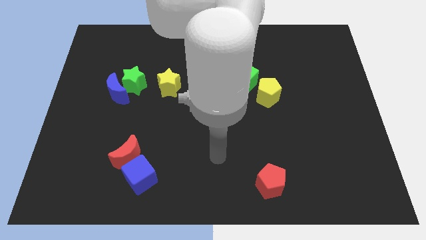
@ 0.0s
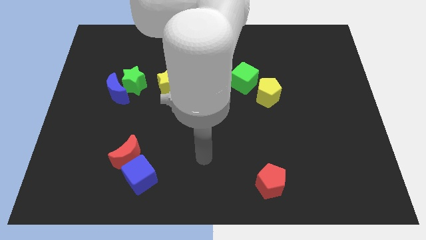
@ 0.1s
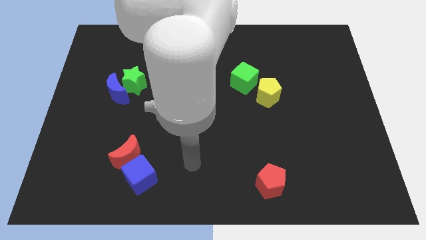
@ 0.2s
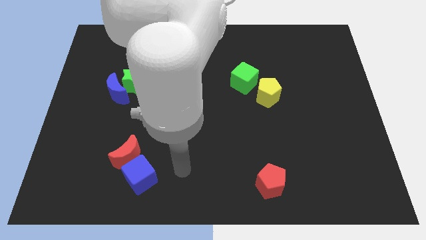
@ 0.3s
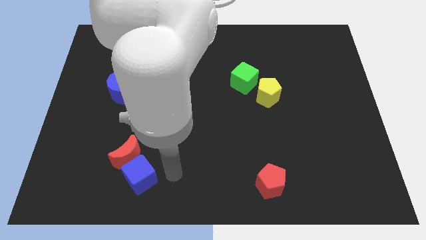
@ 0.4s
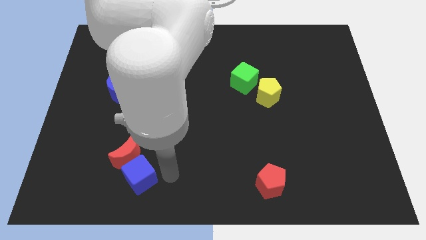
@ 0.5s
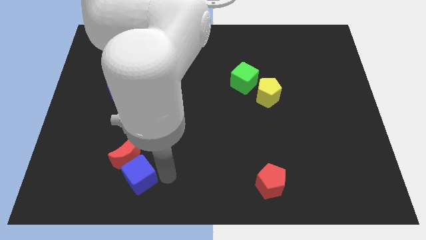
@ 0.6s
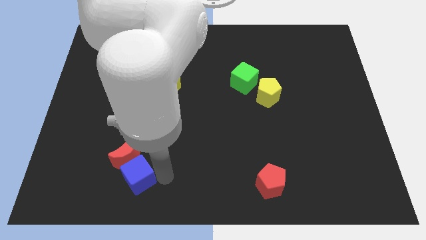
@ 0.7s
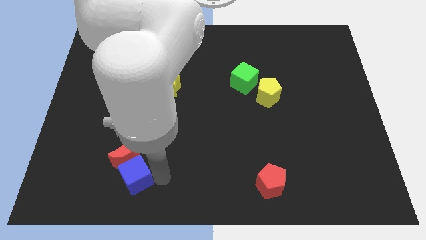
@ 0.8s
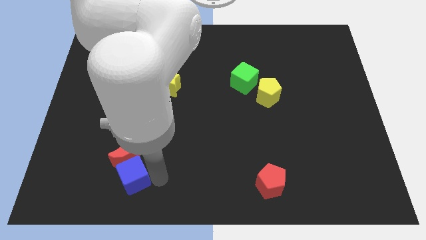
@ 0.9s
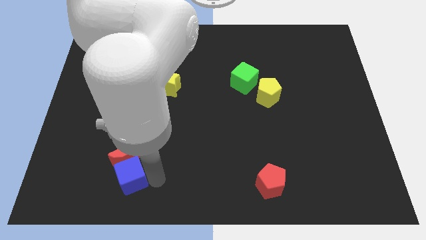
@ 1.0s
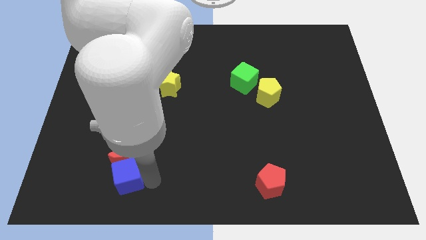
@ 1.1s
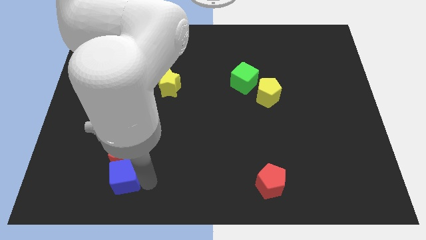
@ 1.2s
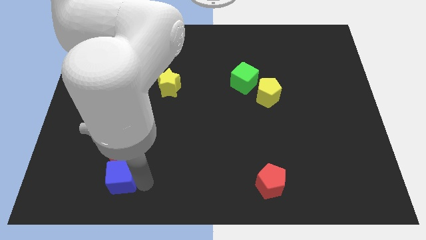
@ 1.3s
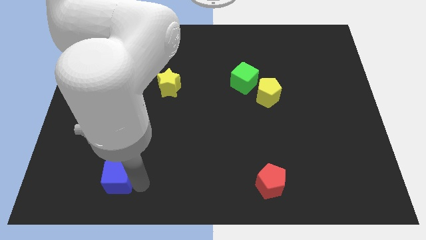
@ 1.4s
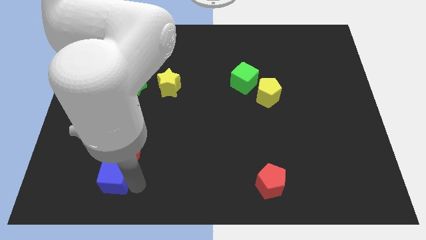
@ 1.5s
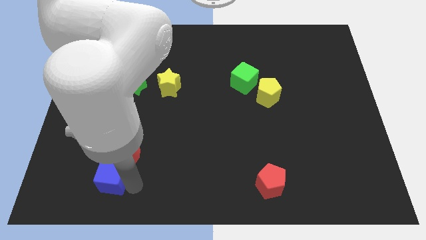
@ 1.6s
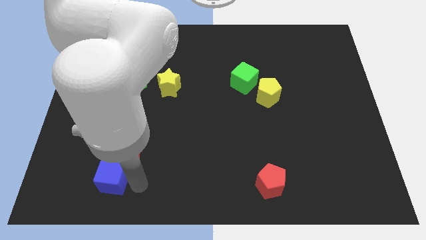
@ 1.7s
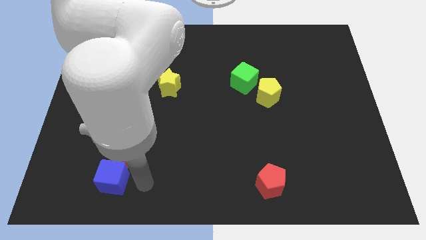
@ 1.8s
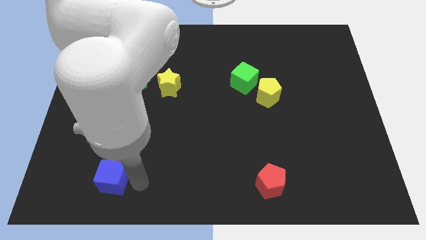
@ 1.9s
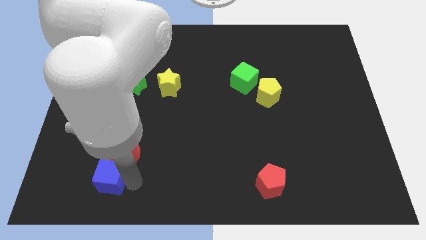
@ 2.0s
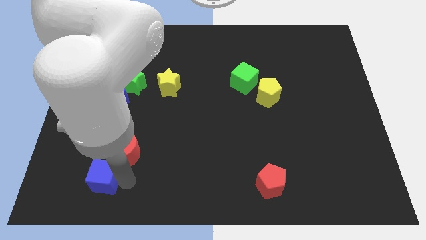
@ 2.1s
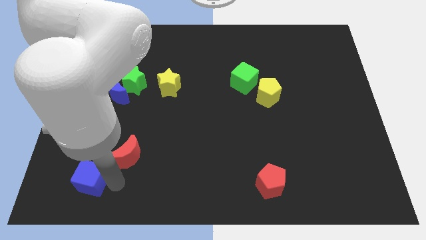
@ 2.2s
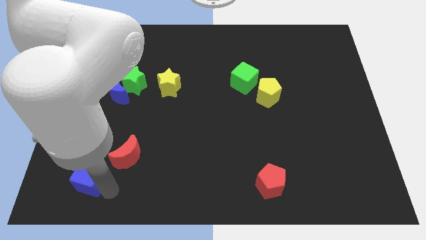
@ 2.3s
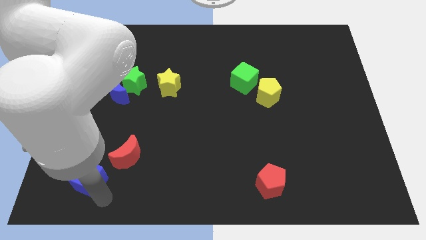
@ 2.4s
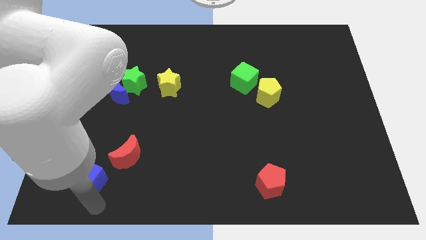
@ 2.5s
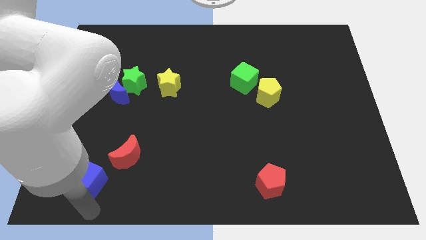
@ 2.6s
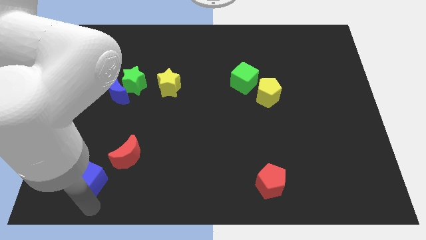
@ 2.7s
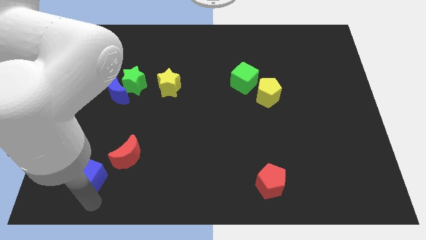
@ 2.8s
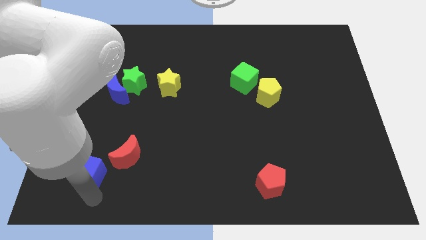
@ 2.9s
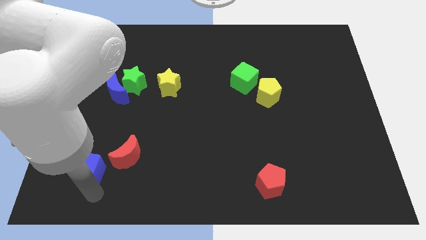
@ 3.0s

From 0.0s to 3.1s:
slightly slide the blue cube diagonally upwards and to the left

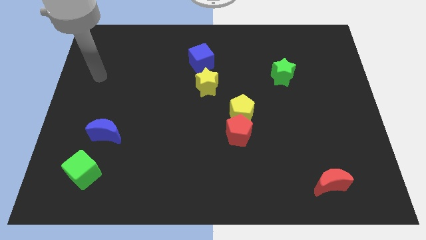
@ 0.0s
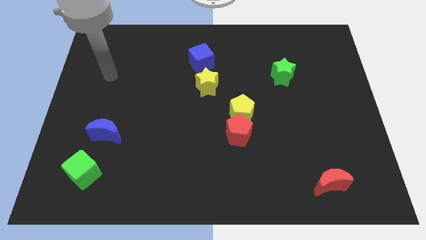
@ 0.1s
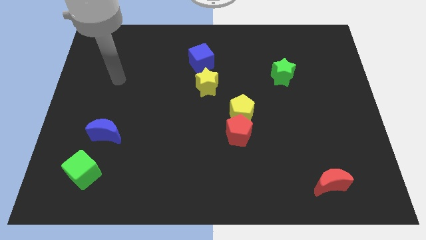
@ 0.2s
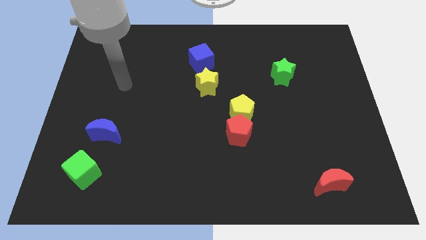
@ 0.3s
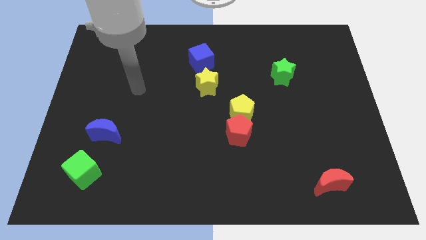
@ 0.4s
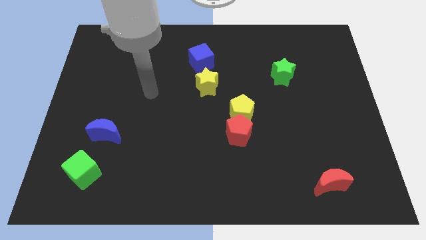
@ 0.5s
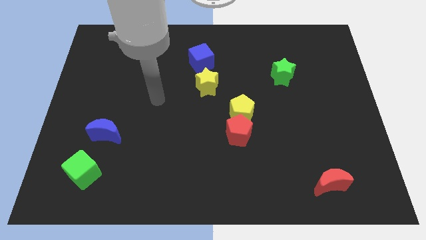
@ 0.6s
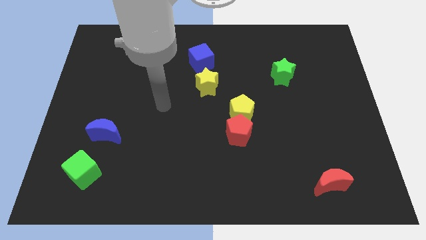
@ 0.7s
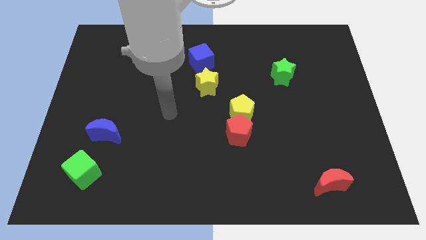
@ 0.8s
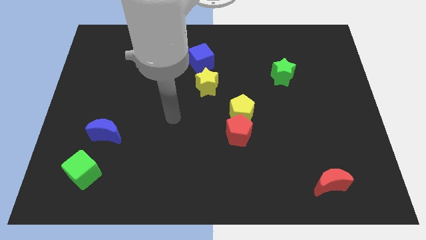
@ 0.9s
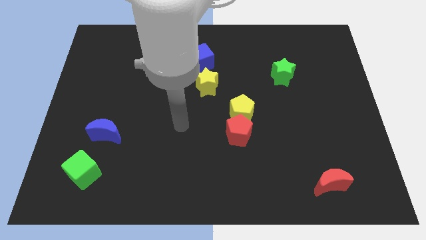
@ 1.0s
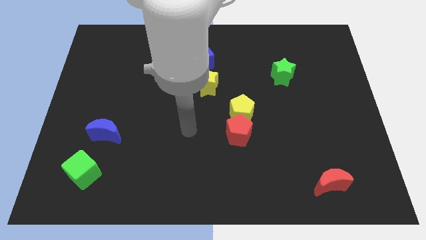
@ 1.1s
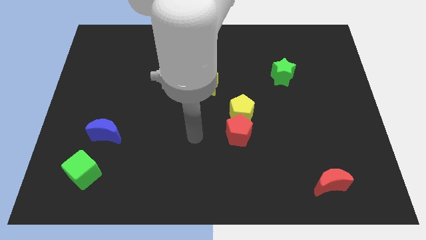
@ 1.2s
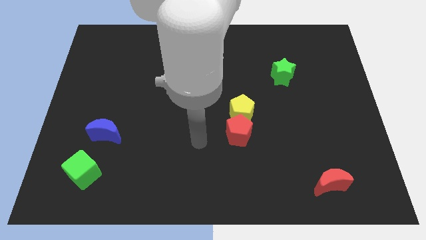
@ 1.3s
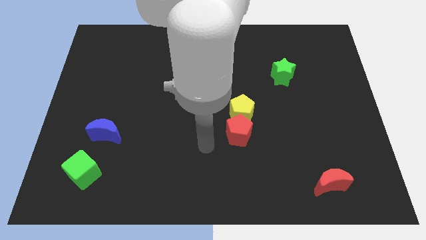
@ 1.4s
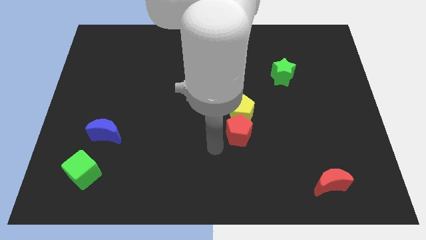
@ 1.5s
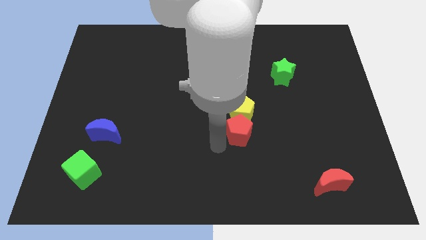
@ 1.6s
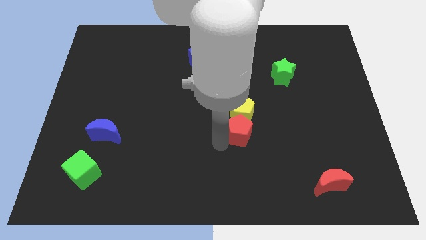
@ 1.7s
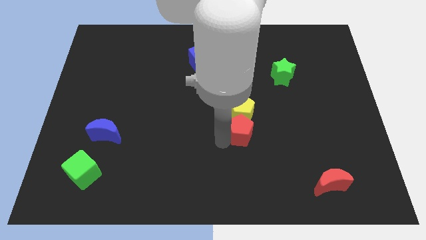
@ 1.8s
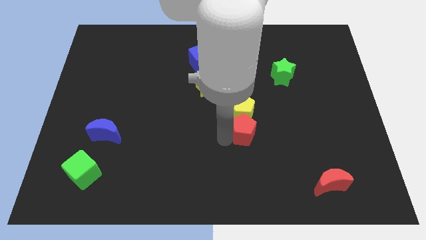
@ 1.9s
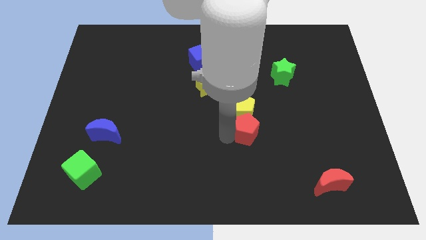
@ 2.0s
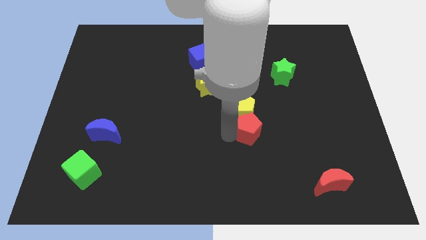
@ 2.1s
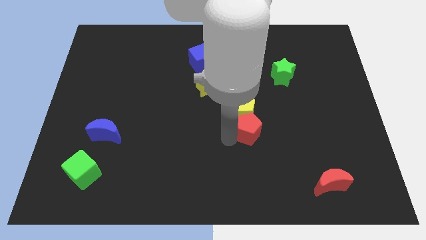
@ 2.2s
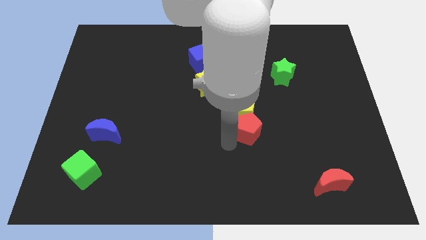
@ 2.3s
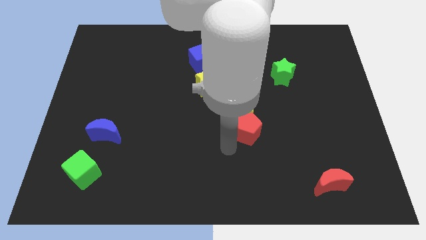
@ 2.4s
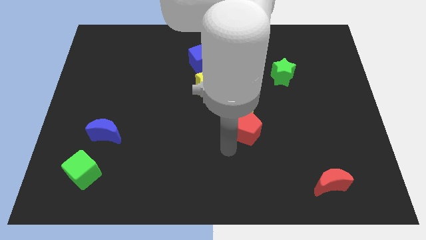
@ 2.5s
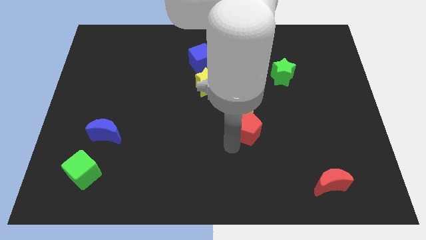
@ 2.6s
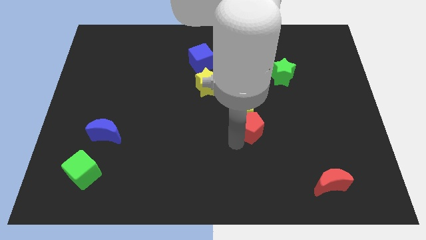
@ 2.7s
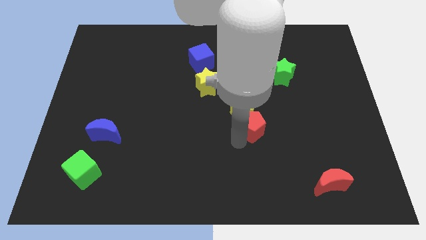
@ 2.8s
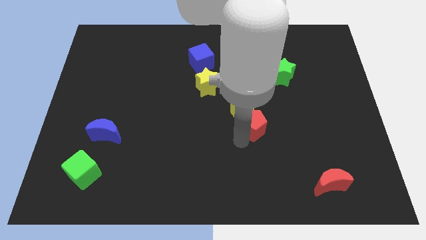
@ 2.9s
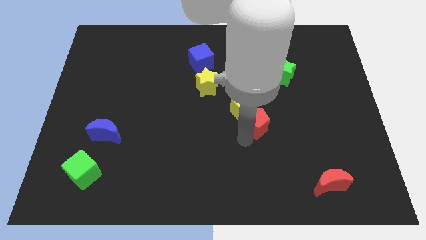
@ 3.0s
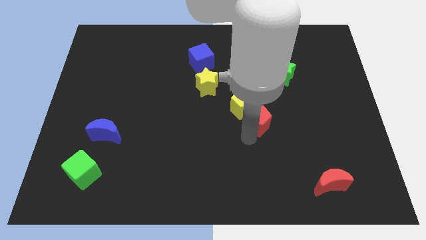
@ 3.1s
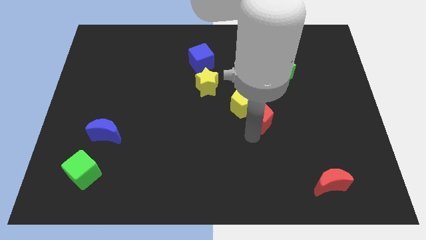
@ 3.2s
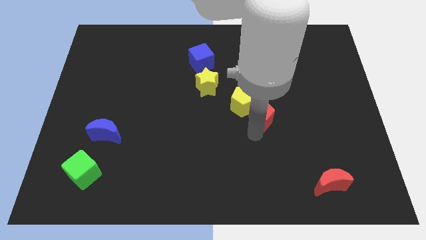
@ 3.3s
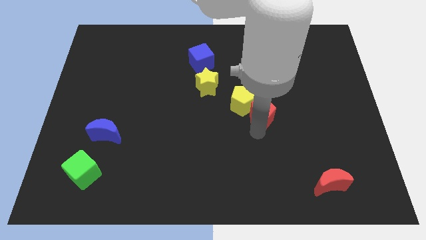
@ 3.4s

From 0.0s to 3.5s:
push the red pentagon up and then right a bit

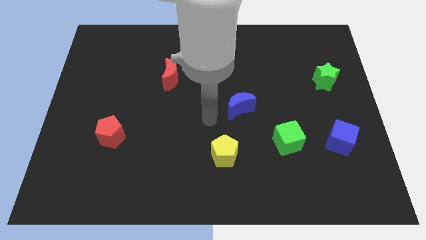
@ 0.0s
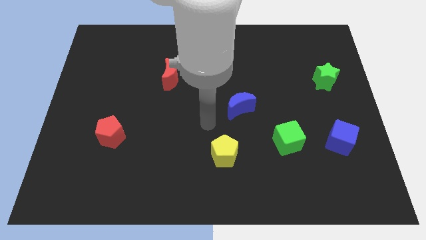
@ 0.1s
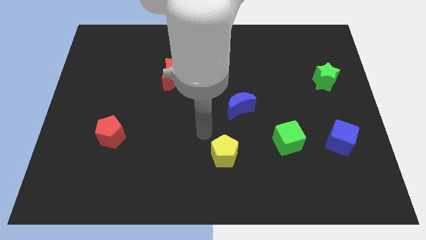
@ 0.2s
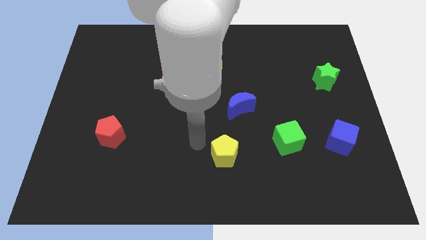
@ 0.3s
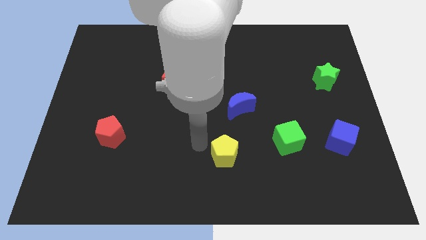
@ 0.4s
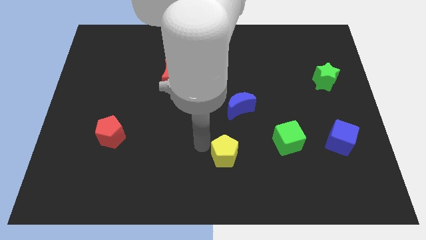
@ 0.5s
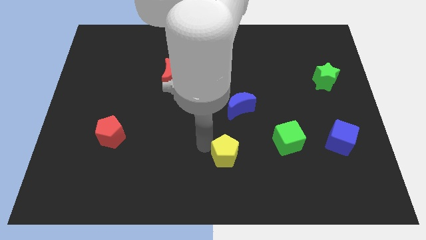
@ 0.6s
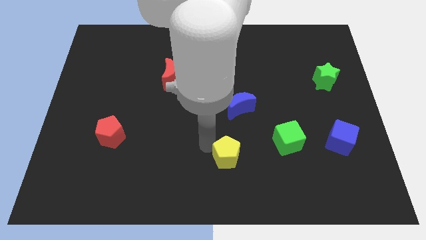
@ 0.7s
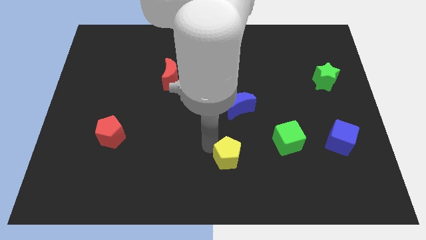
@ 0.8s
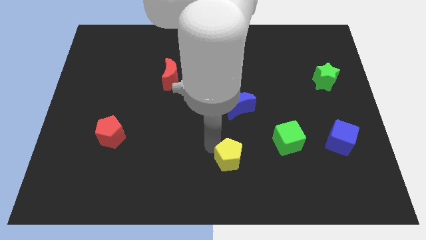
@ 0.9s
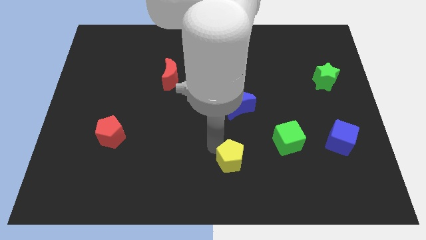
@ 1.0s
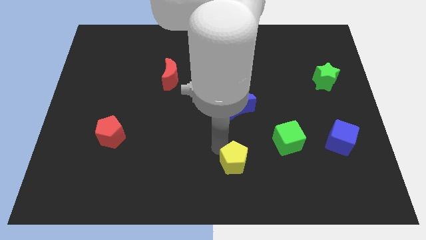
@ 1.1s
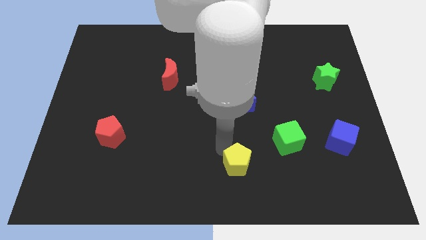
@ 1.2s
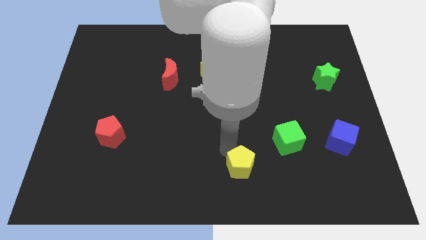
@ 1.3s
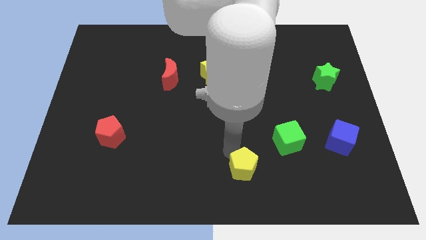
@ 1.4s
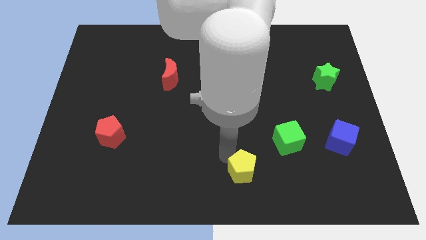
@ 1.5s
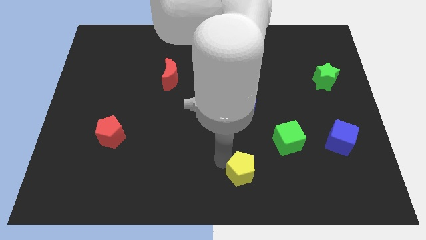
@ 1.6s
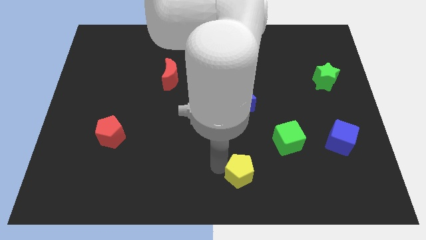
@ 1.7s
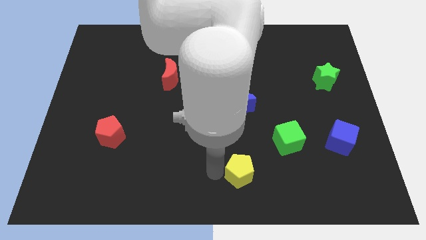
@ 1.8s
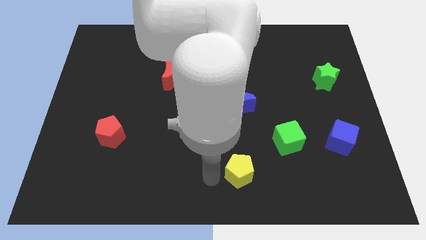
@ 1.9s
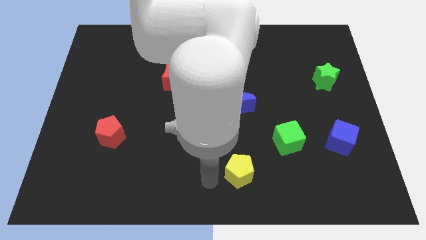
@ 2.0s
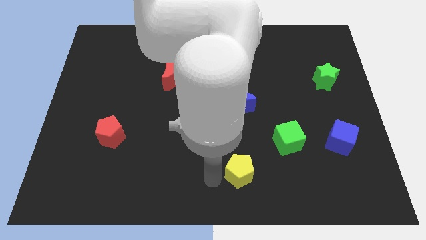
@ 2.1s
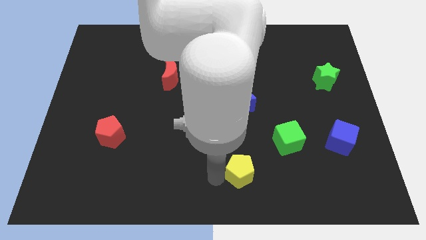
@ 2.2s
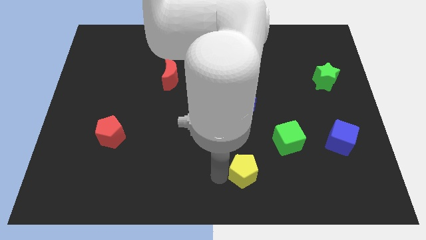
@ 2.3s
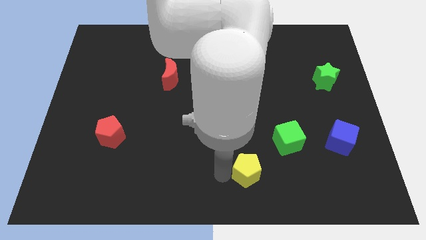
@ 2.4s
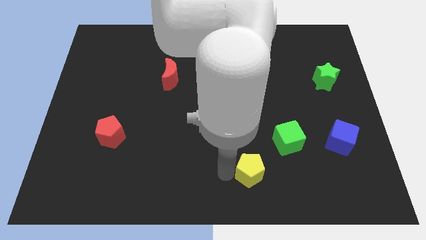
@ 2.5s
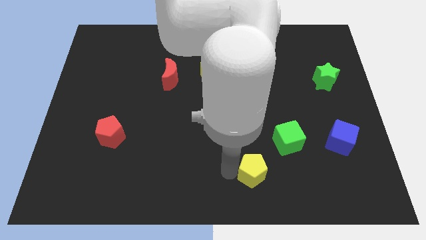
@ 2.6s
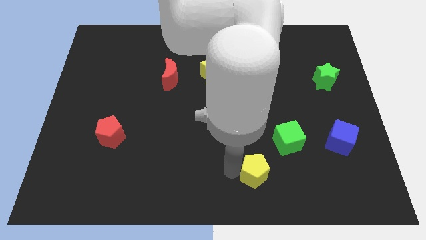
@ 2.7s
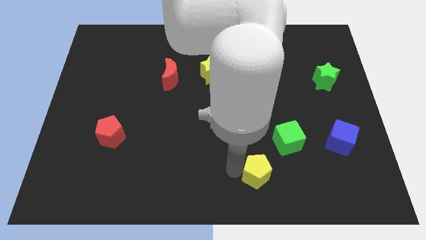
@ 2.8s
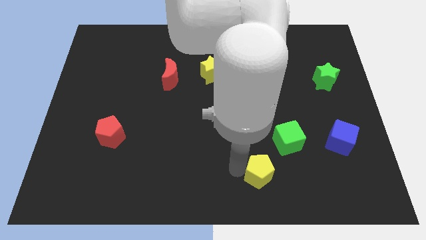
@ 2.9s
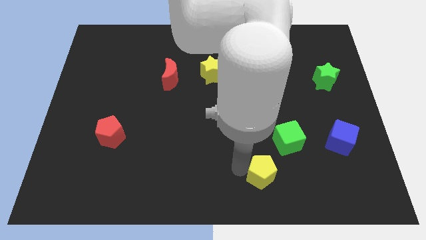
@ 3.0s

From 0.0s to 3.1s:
slide the yellow pentagon somewhat to the right
